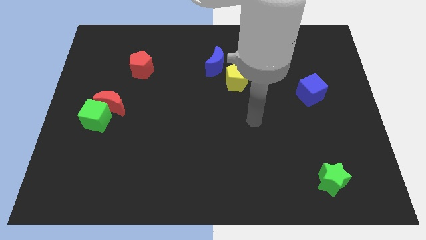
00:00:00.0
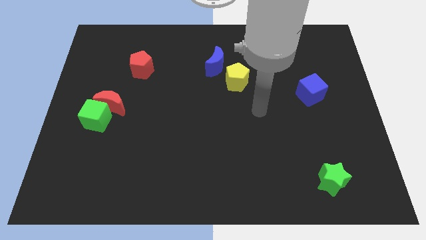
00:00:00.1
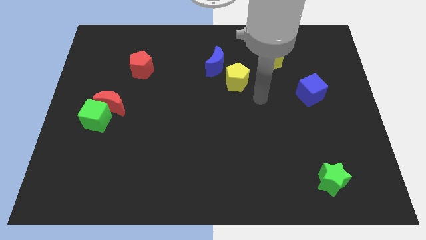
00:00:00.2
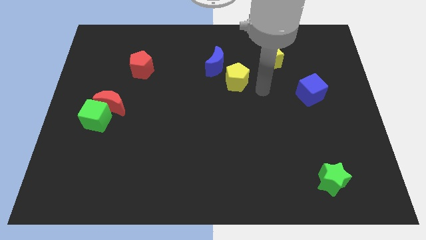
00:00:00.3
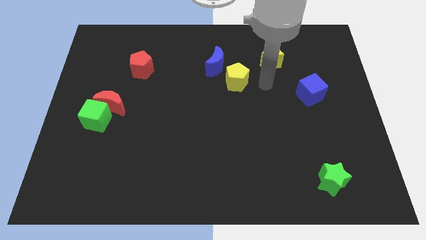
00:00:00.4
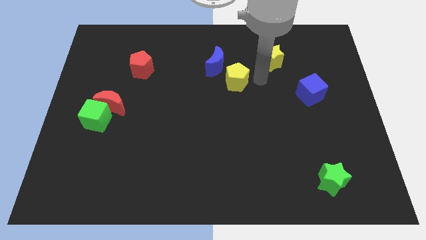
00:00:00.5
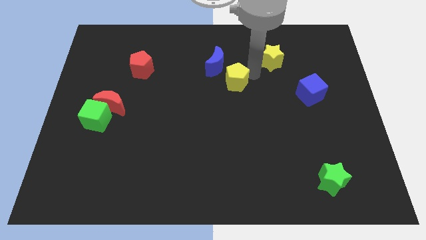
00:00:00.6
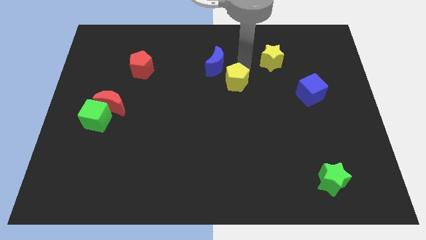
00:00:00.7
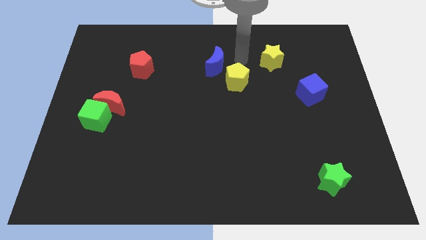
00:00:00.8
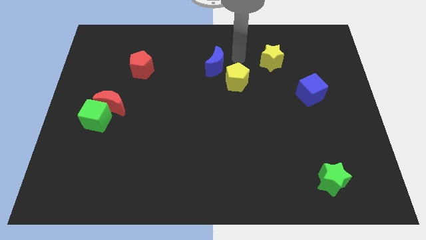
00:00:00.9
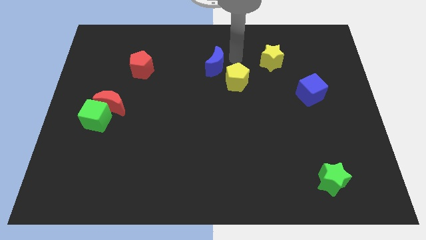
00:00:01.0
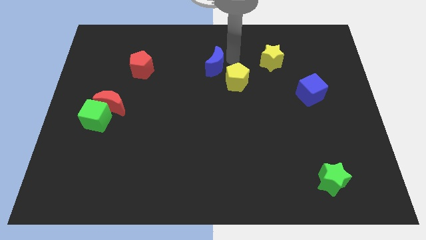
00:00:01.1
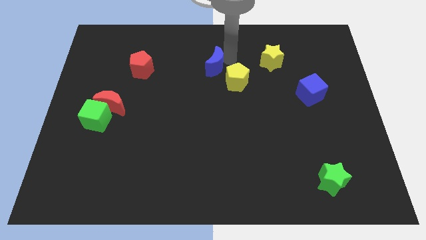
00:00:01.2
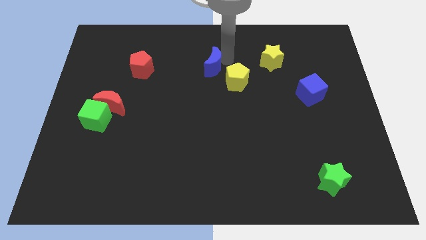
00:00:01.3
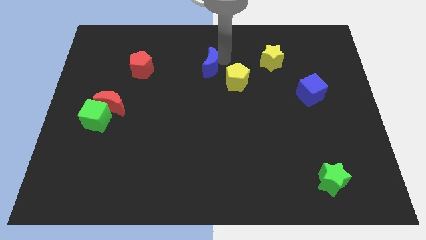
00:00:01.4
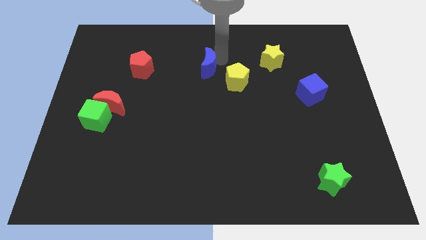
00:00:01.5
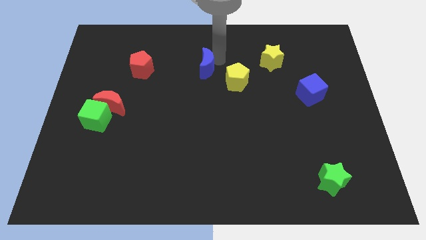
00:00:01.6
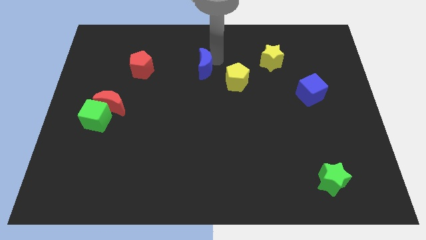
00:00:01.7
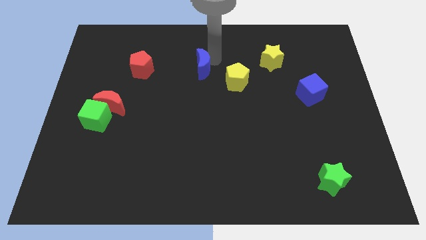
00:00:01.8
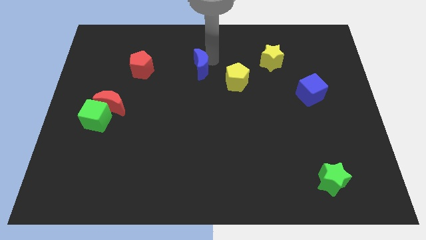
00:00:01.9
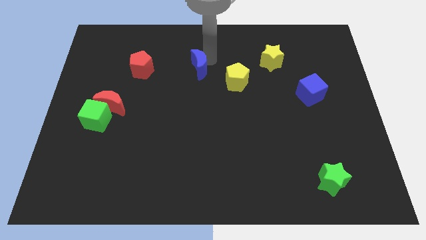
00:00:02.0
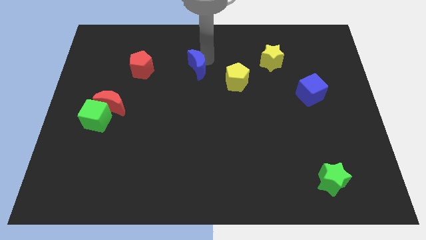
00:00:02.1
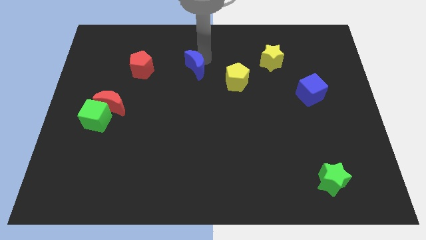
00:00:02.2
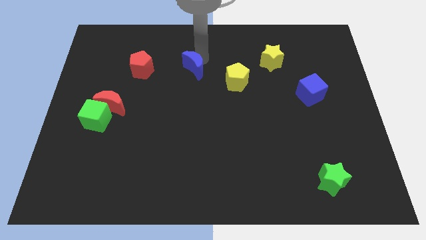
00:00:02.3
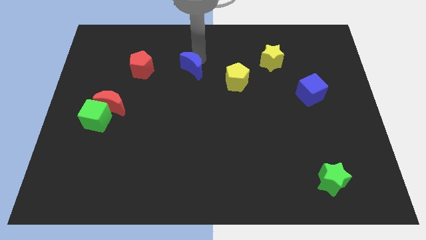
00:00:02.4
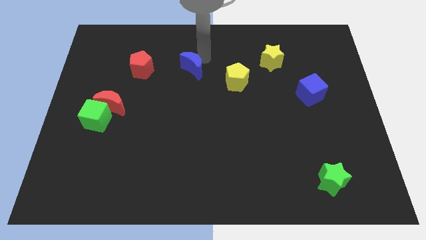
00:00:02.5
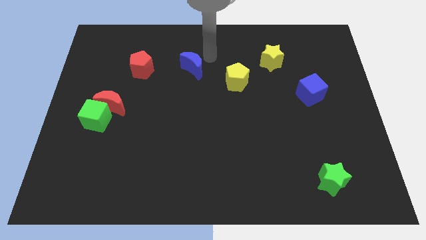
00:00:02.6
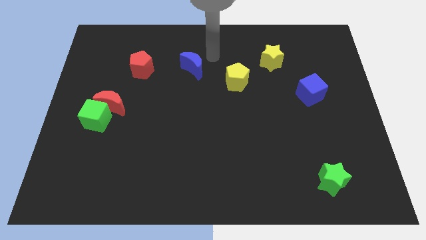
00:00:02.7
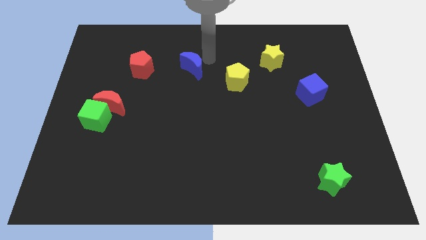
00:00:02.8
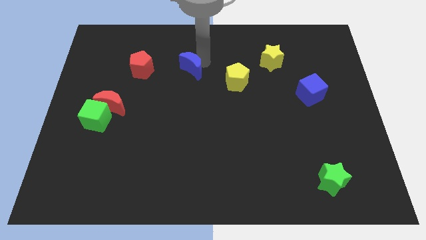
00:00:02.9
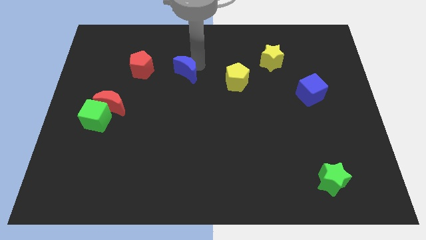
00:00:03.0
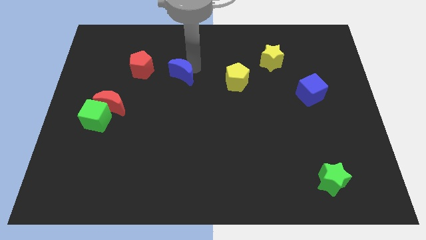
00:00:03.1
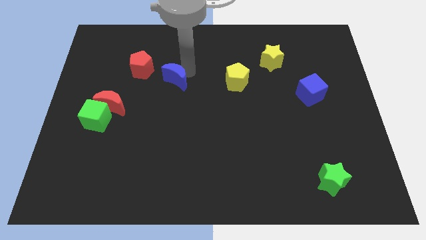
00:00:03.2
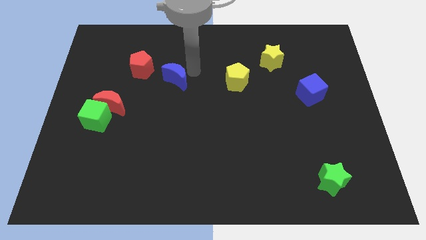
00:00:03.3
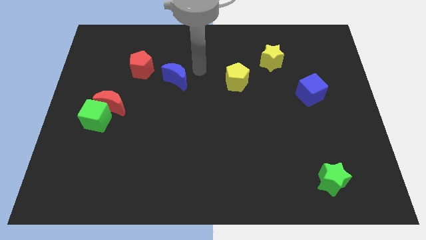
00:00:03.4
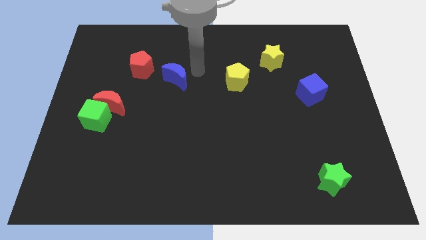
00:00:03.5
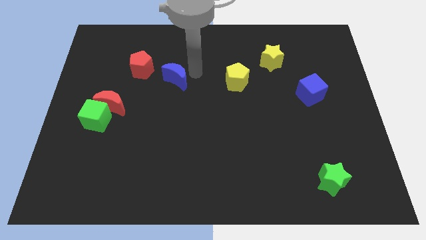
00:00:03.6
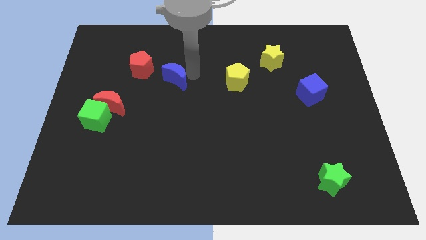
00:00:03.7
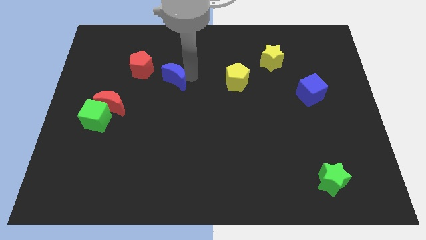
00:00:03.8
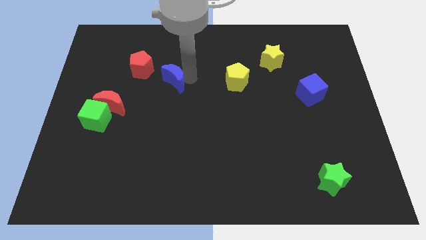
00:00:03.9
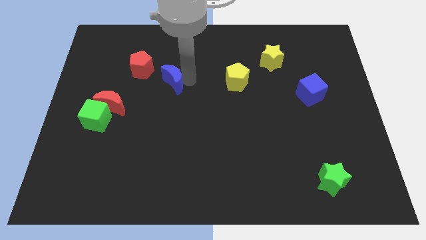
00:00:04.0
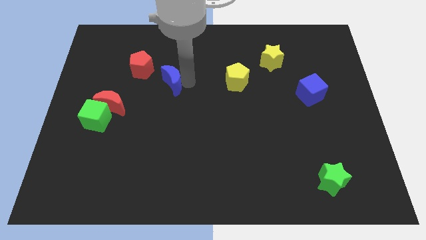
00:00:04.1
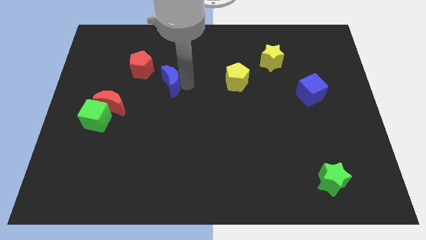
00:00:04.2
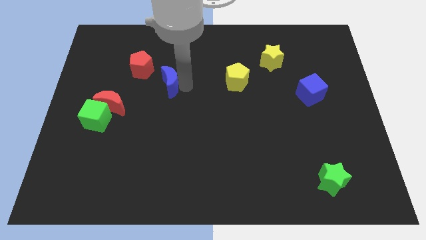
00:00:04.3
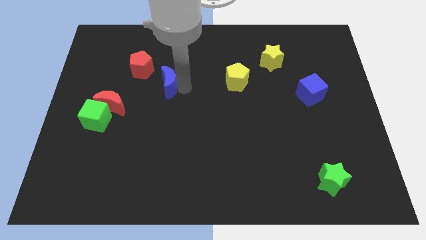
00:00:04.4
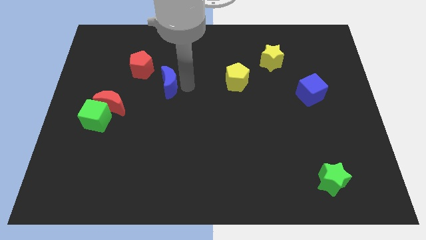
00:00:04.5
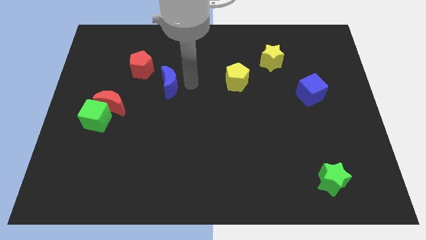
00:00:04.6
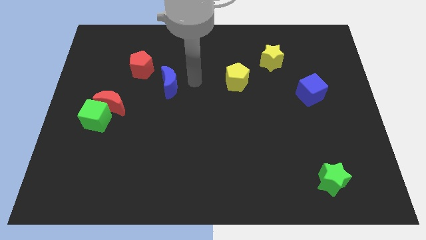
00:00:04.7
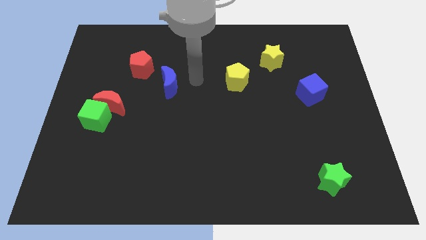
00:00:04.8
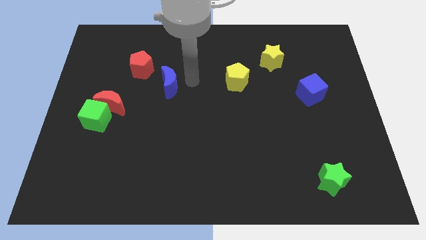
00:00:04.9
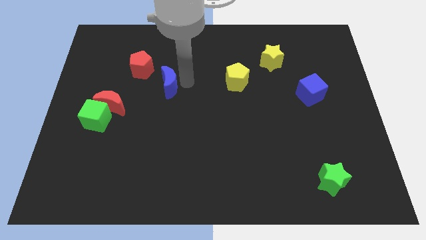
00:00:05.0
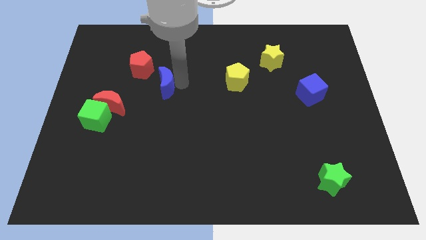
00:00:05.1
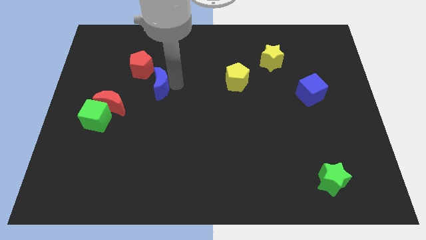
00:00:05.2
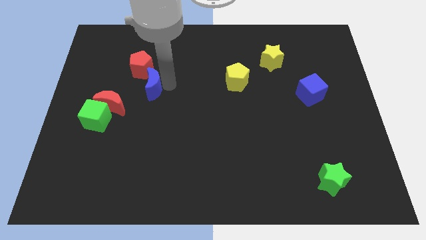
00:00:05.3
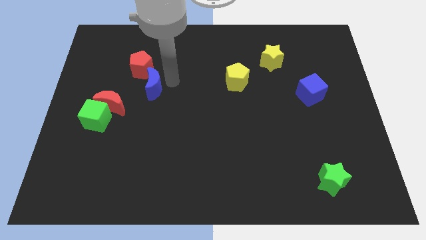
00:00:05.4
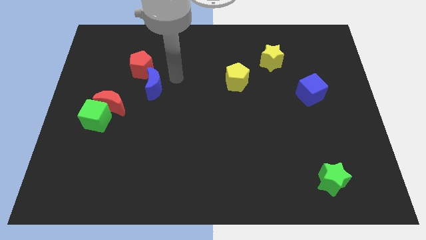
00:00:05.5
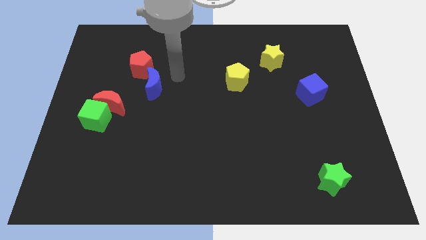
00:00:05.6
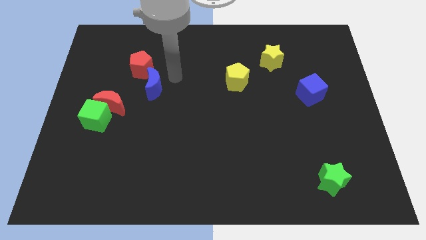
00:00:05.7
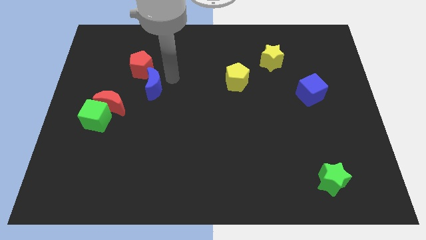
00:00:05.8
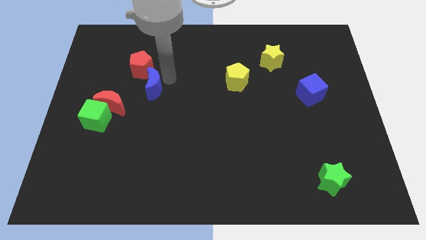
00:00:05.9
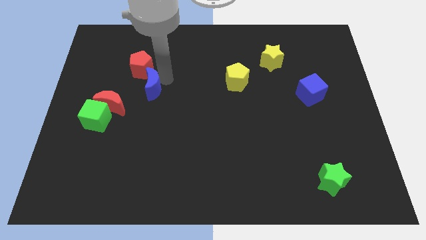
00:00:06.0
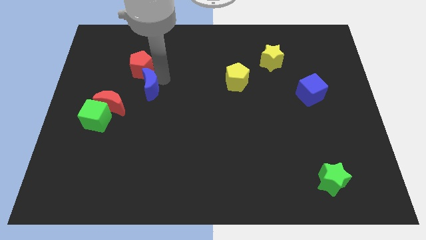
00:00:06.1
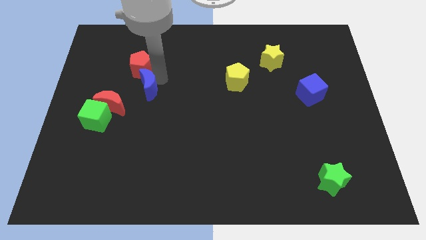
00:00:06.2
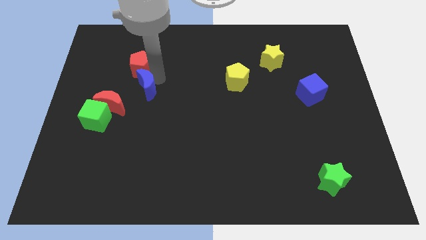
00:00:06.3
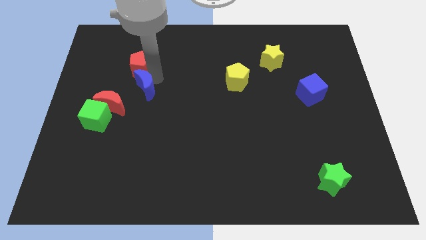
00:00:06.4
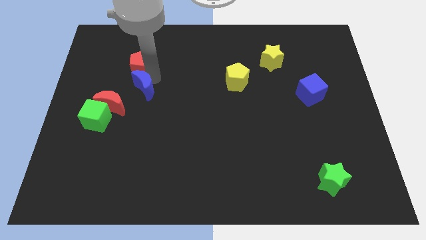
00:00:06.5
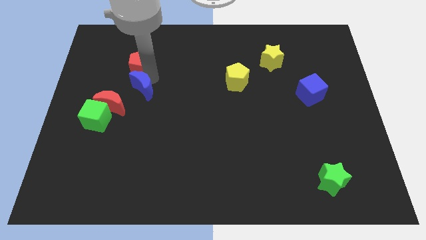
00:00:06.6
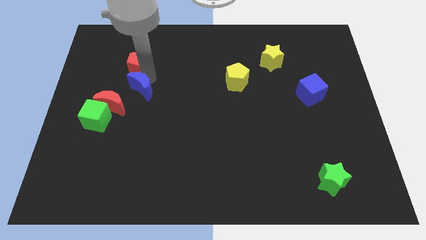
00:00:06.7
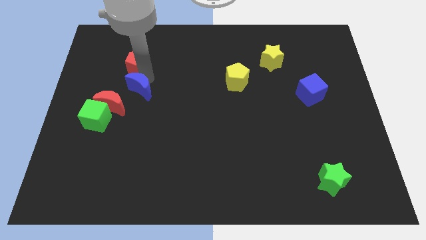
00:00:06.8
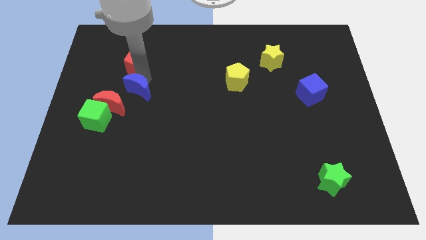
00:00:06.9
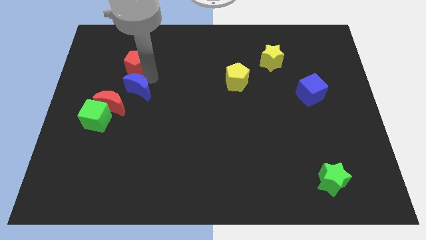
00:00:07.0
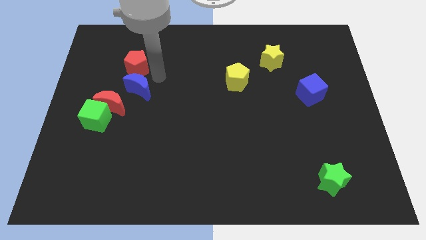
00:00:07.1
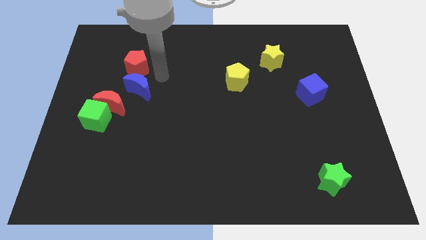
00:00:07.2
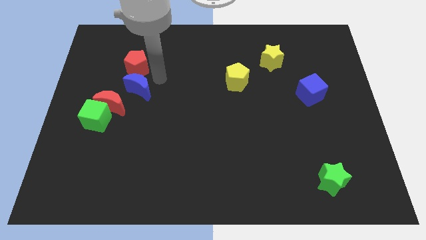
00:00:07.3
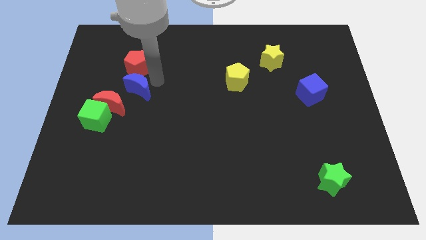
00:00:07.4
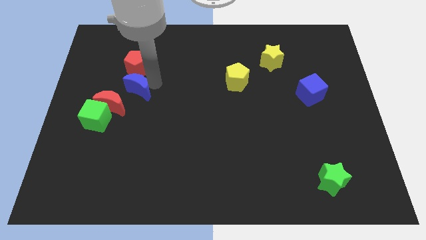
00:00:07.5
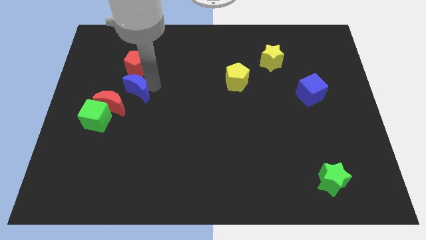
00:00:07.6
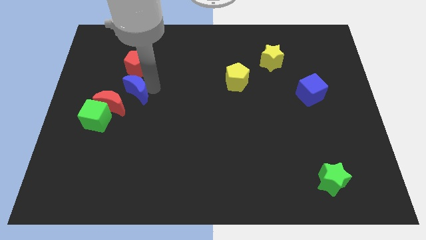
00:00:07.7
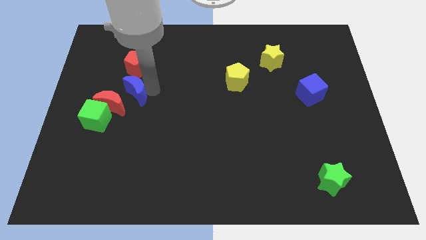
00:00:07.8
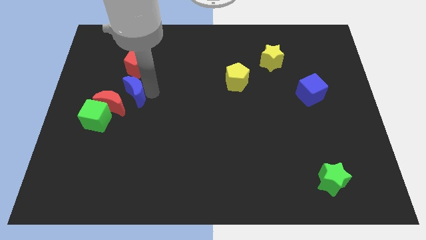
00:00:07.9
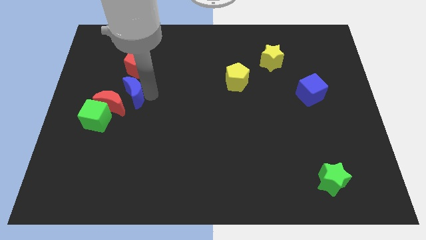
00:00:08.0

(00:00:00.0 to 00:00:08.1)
move the blue moon next to the red moon

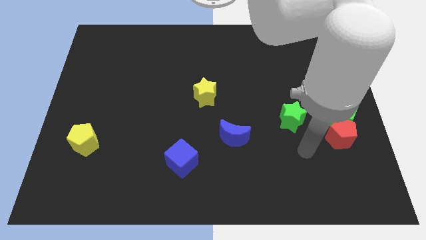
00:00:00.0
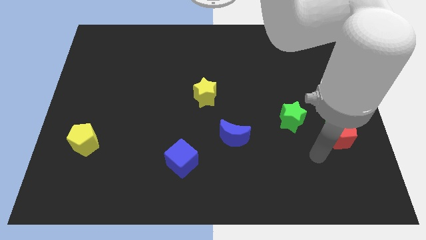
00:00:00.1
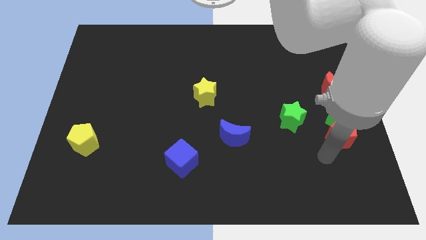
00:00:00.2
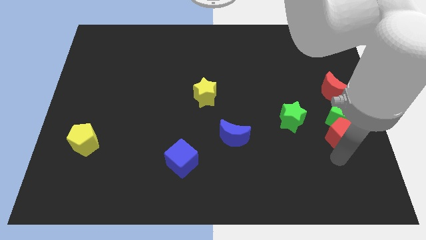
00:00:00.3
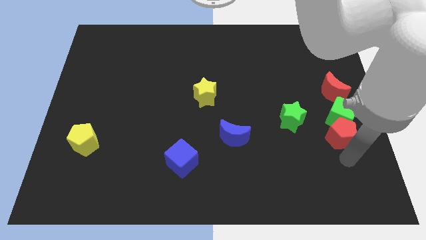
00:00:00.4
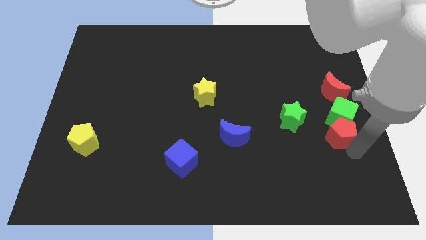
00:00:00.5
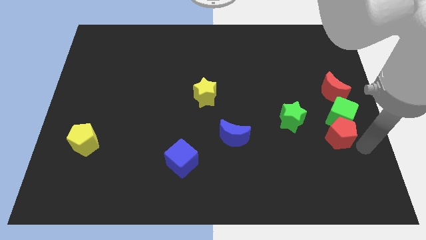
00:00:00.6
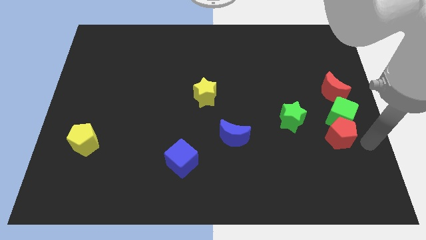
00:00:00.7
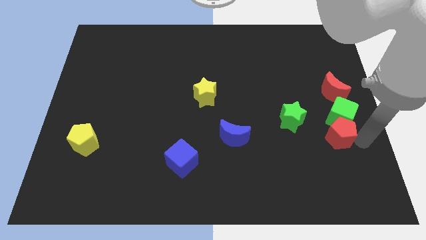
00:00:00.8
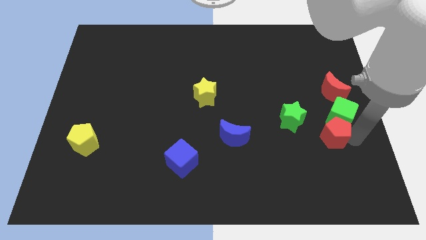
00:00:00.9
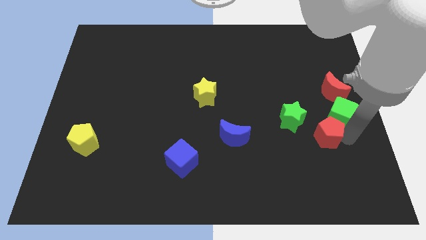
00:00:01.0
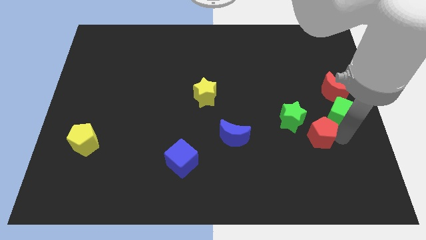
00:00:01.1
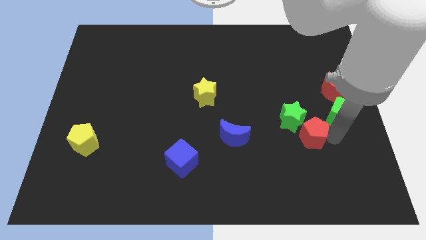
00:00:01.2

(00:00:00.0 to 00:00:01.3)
push the red pentagon next to the green star
